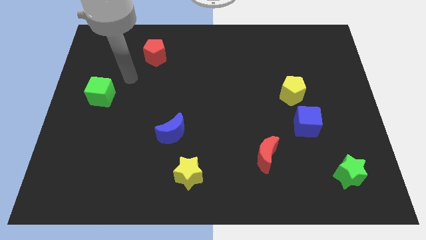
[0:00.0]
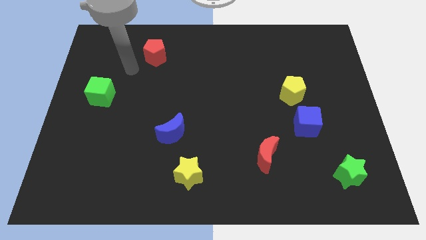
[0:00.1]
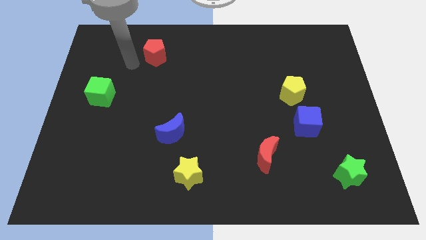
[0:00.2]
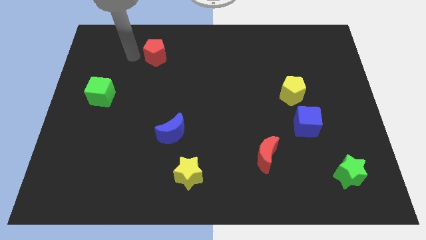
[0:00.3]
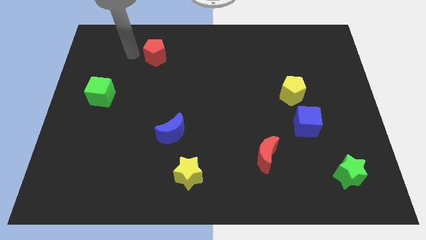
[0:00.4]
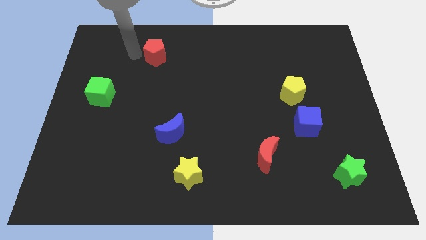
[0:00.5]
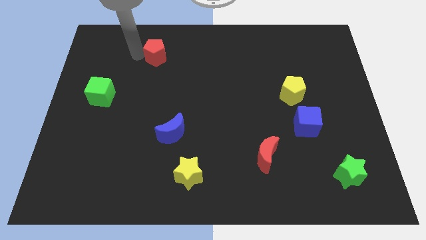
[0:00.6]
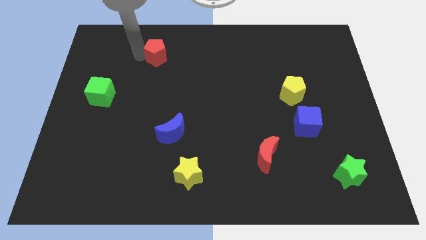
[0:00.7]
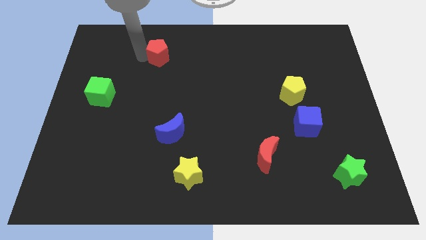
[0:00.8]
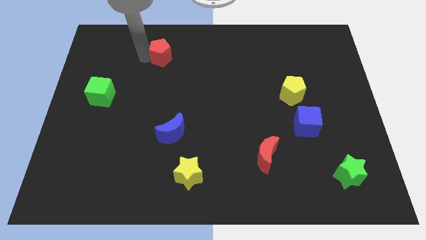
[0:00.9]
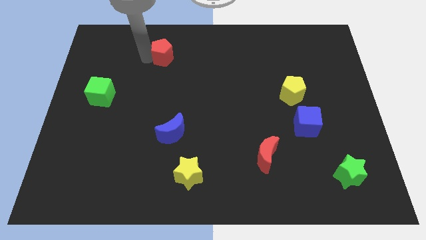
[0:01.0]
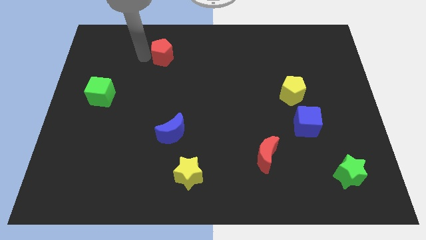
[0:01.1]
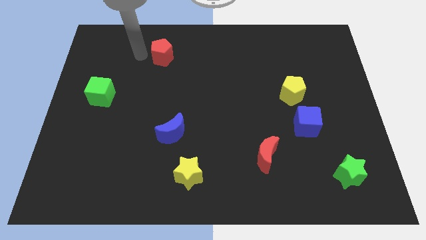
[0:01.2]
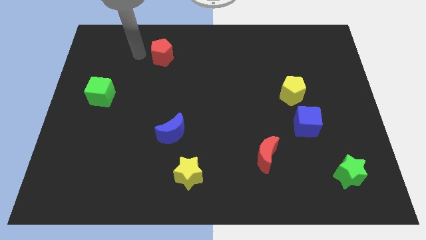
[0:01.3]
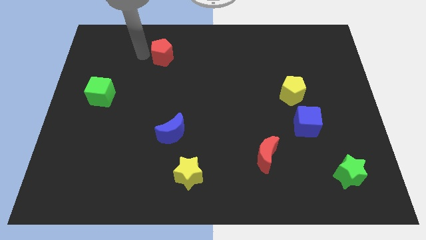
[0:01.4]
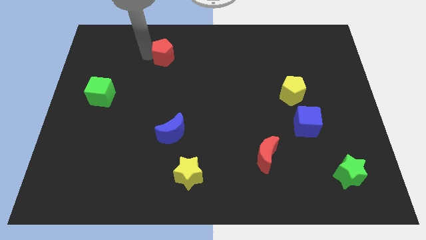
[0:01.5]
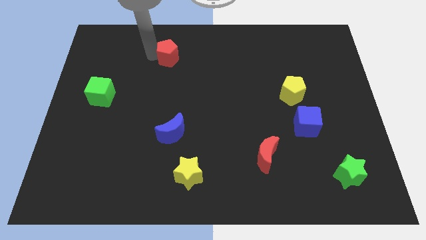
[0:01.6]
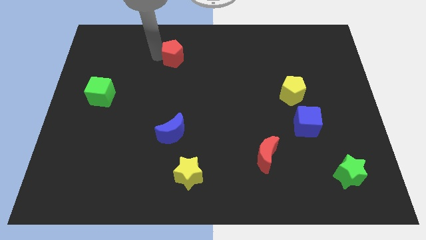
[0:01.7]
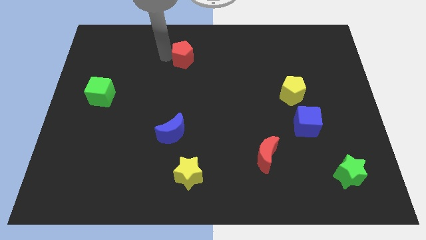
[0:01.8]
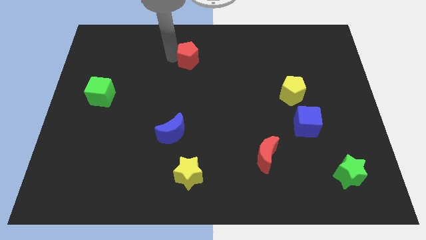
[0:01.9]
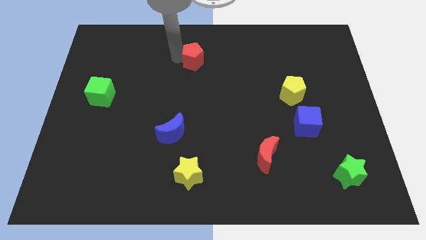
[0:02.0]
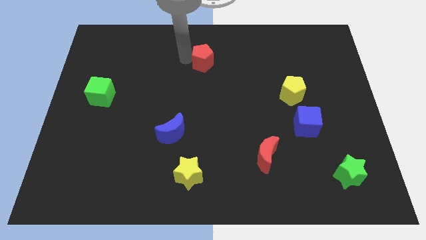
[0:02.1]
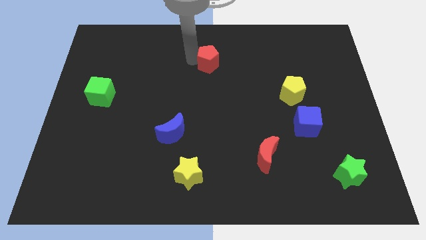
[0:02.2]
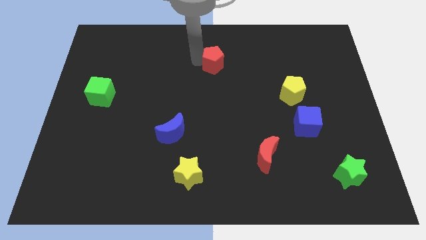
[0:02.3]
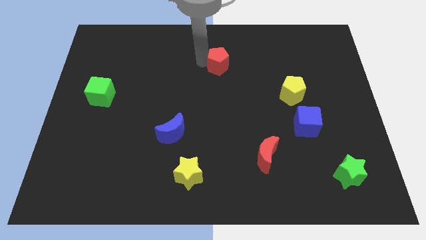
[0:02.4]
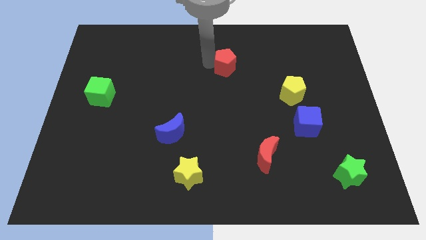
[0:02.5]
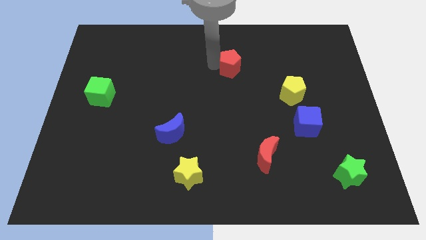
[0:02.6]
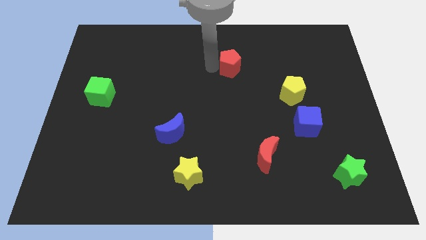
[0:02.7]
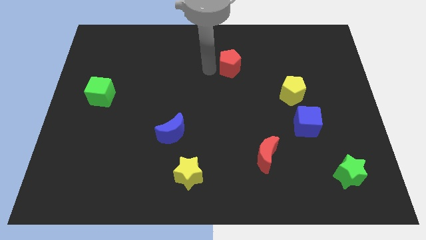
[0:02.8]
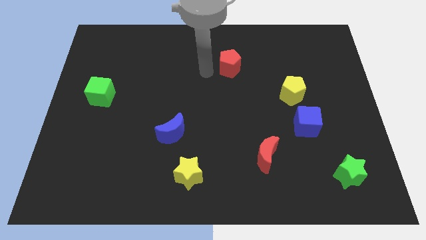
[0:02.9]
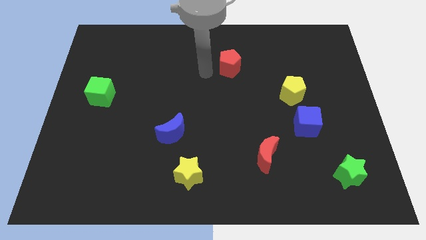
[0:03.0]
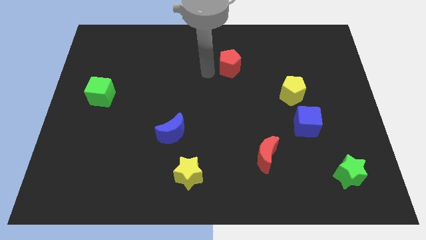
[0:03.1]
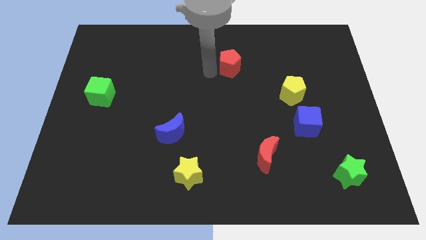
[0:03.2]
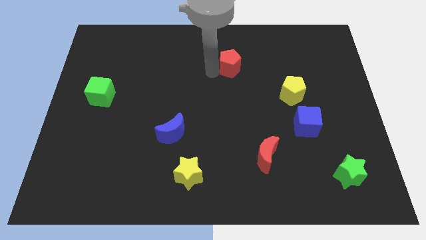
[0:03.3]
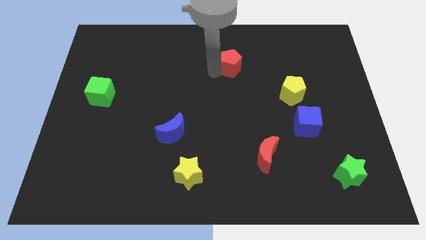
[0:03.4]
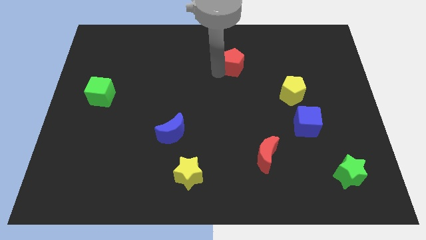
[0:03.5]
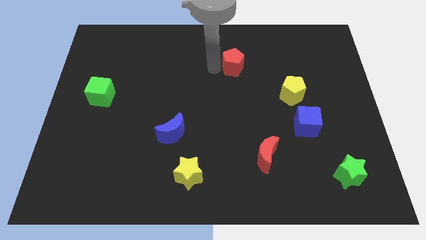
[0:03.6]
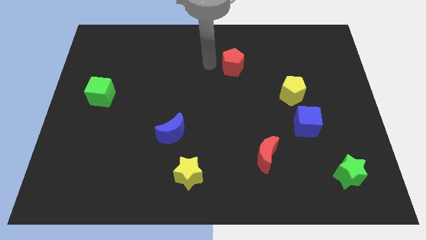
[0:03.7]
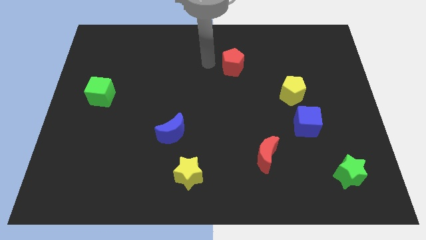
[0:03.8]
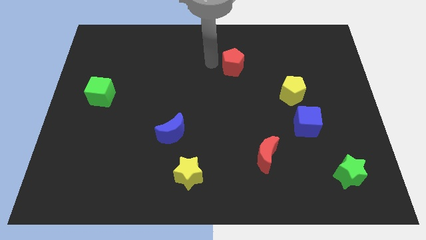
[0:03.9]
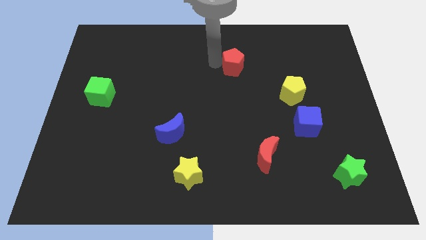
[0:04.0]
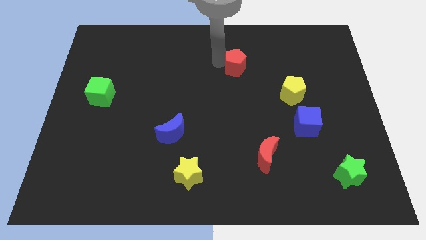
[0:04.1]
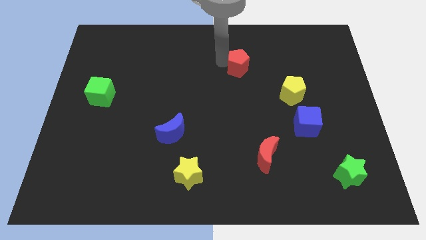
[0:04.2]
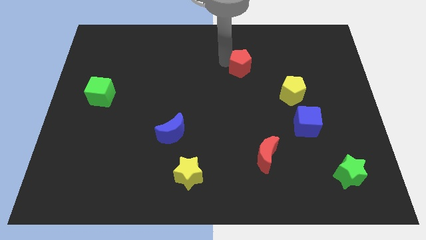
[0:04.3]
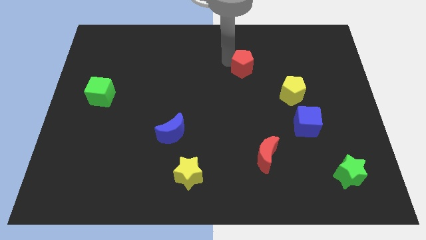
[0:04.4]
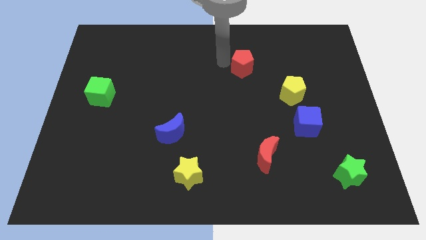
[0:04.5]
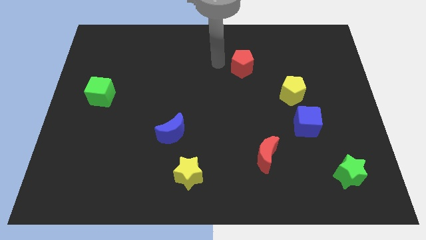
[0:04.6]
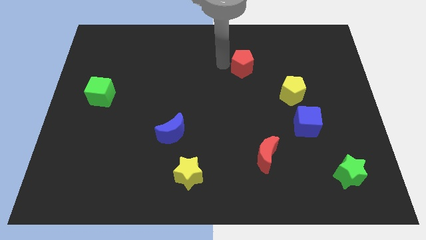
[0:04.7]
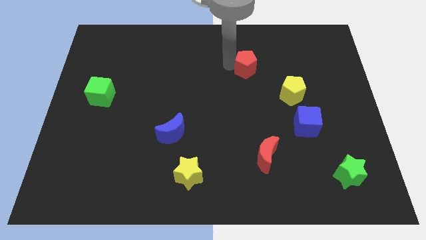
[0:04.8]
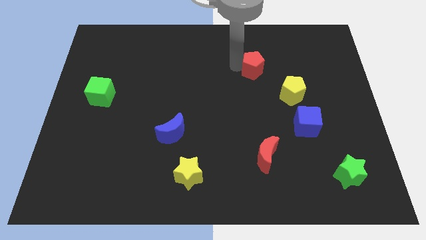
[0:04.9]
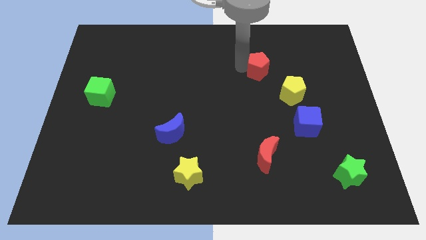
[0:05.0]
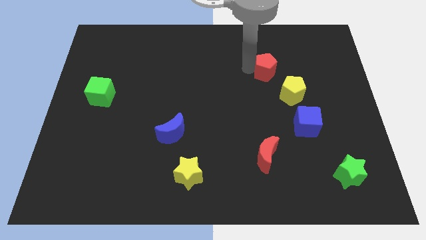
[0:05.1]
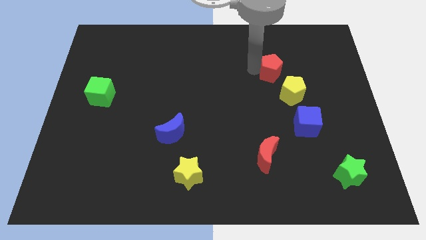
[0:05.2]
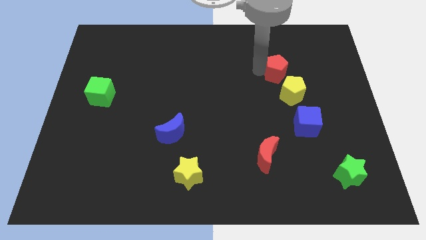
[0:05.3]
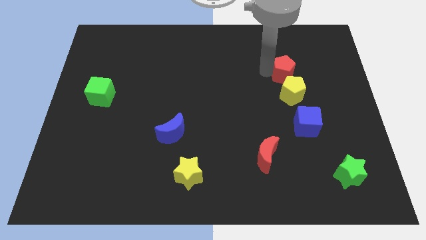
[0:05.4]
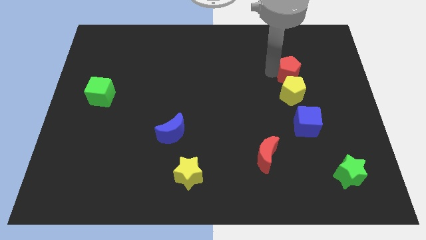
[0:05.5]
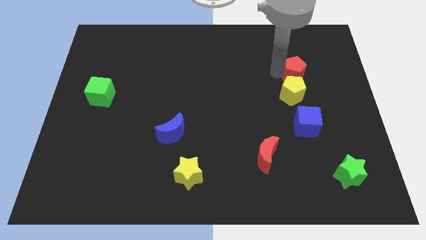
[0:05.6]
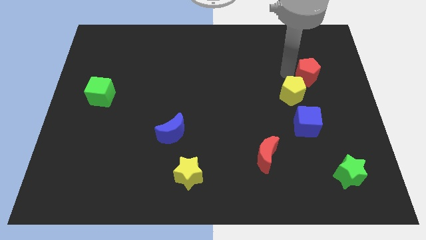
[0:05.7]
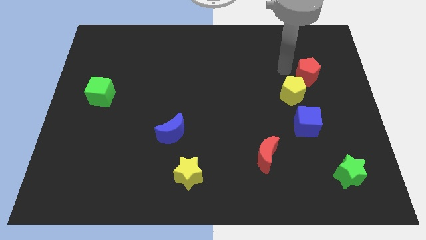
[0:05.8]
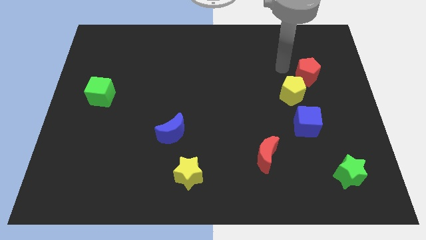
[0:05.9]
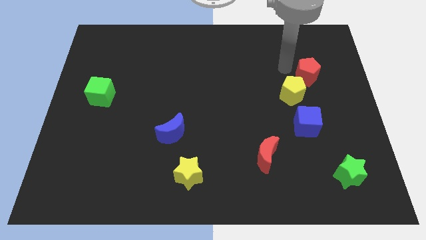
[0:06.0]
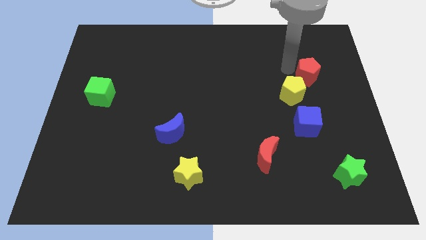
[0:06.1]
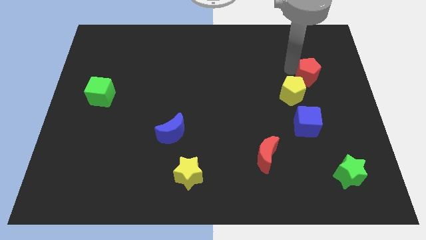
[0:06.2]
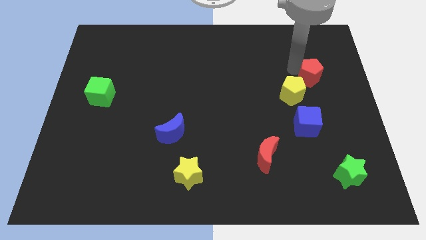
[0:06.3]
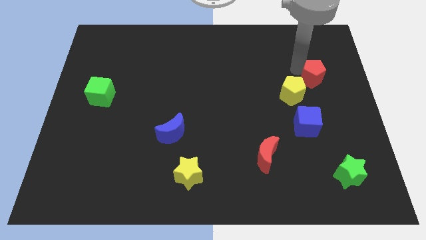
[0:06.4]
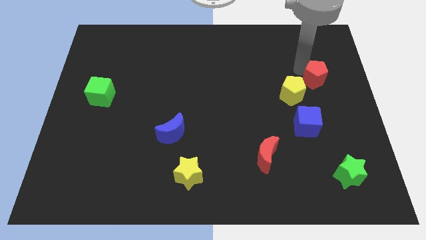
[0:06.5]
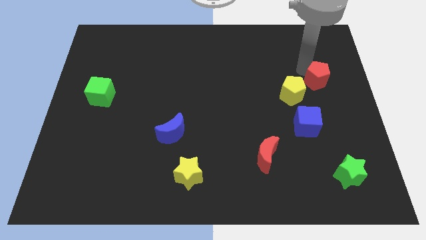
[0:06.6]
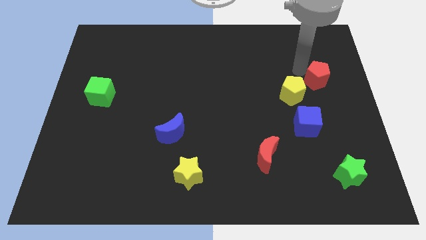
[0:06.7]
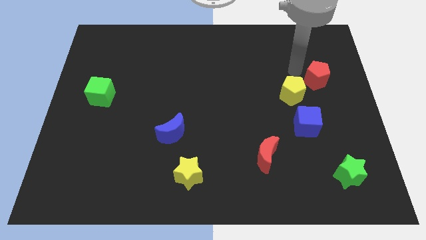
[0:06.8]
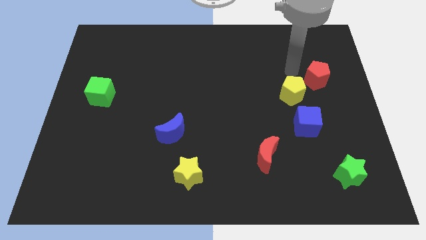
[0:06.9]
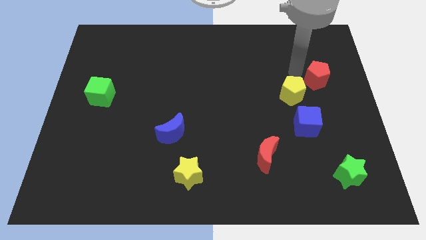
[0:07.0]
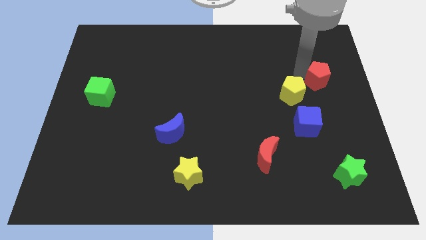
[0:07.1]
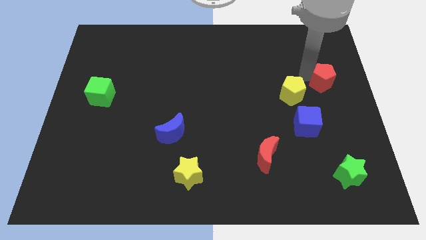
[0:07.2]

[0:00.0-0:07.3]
push the red pentagon to the right side
